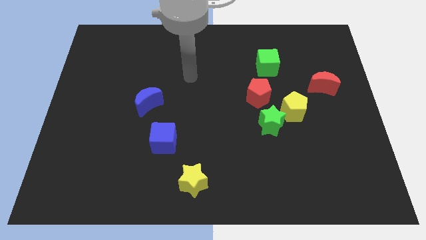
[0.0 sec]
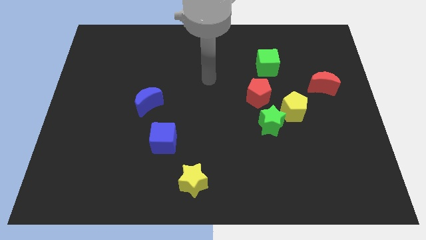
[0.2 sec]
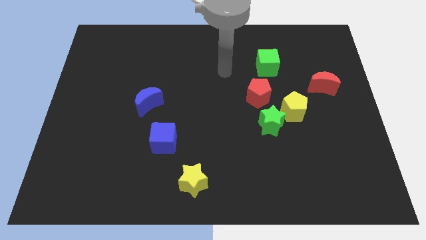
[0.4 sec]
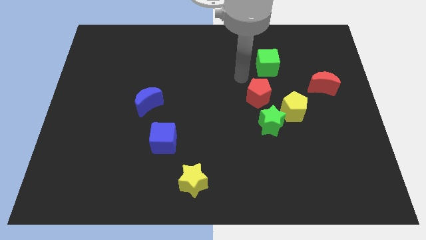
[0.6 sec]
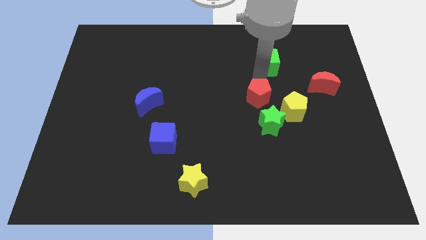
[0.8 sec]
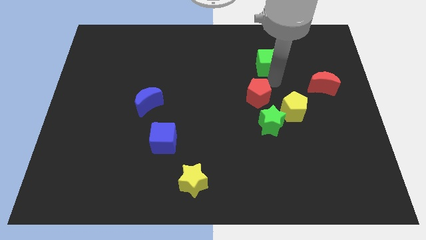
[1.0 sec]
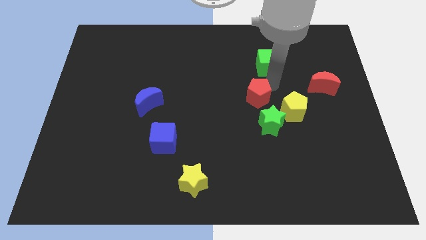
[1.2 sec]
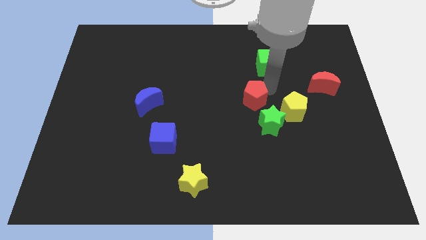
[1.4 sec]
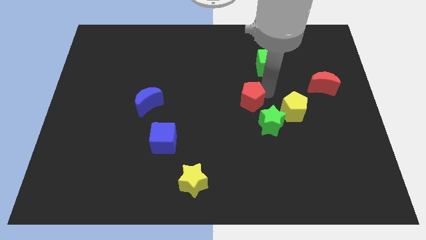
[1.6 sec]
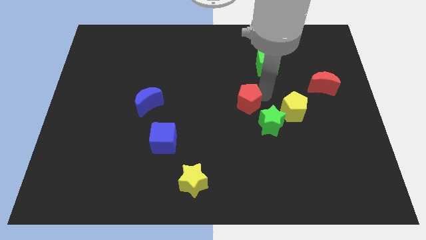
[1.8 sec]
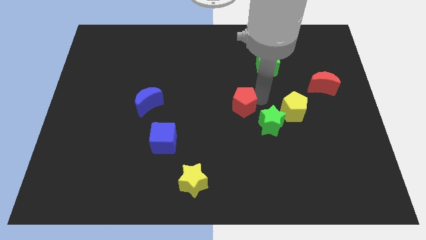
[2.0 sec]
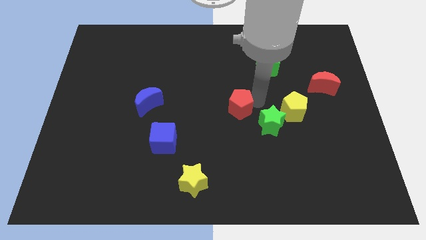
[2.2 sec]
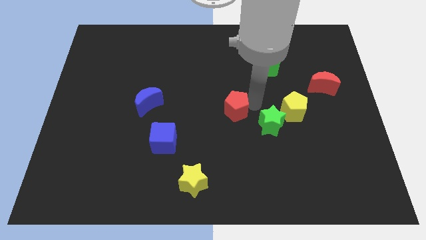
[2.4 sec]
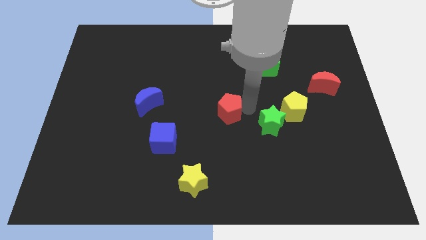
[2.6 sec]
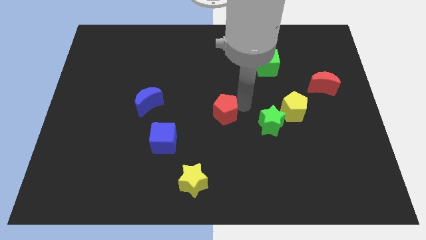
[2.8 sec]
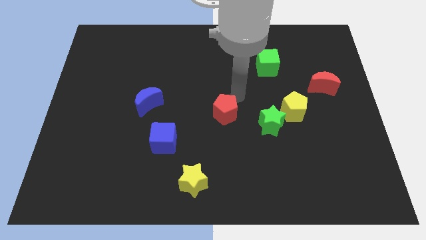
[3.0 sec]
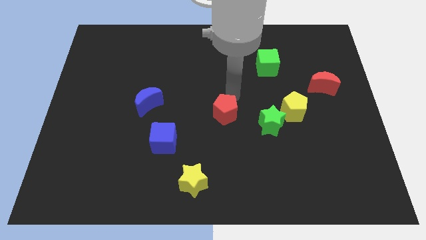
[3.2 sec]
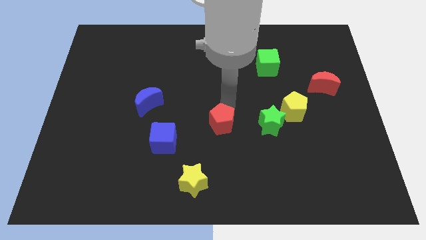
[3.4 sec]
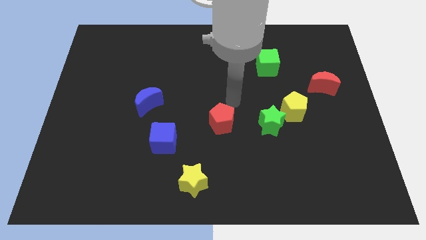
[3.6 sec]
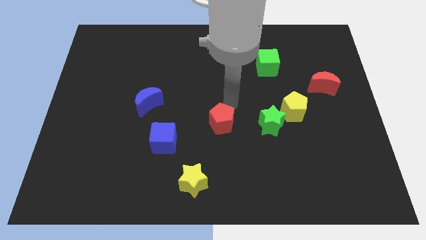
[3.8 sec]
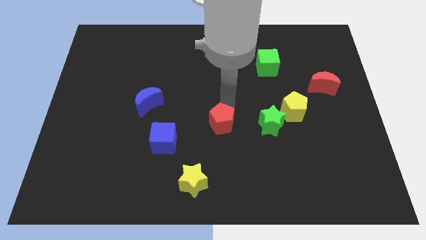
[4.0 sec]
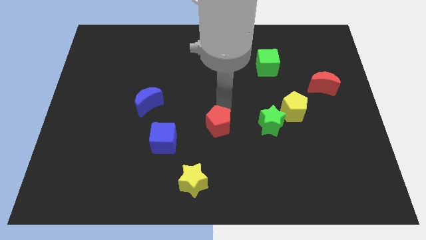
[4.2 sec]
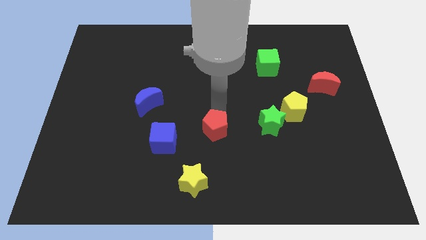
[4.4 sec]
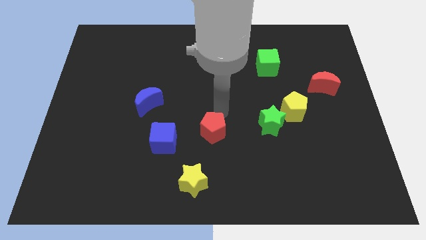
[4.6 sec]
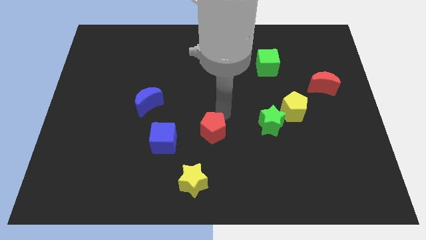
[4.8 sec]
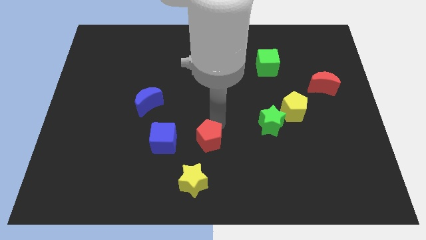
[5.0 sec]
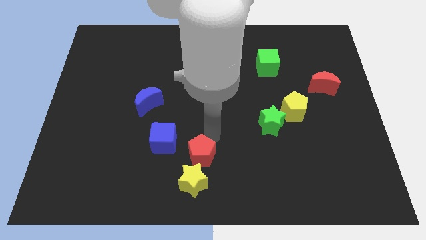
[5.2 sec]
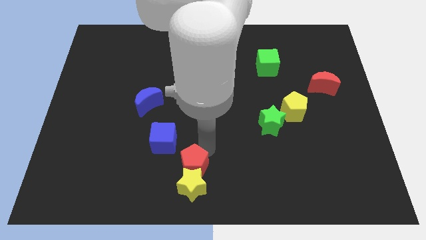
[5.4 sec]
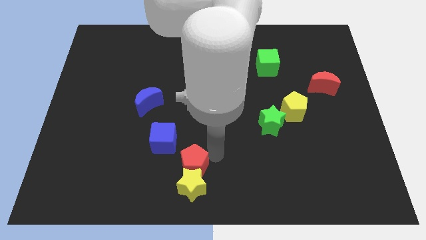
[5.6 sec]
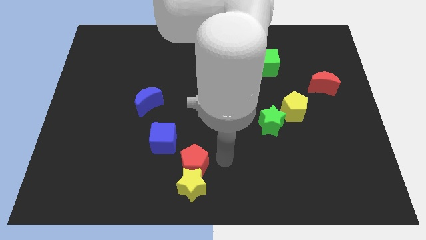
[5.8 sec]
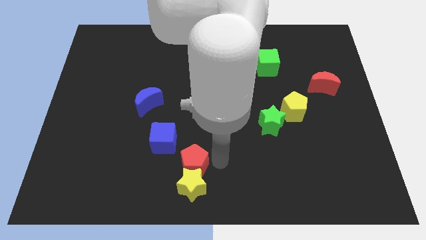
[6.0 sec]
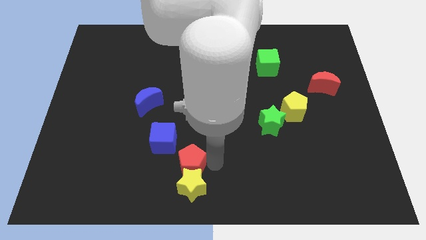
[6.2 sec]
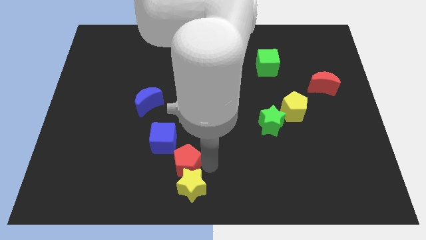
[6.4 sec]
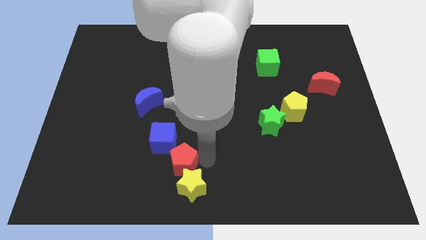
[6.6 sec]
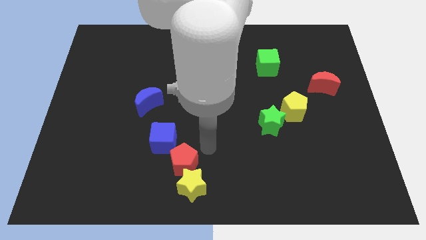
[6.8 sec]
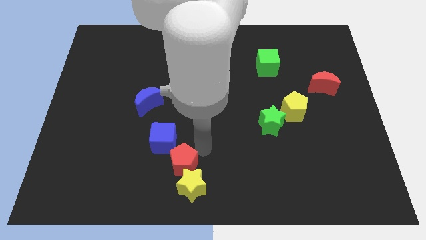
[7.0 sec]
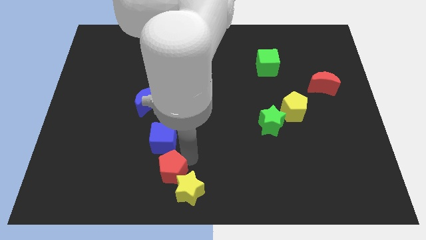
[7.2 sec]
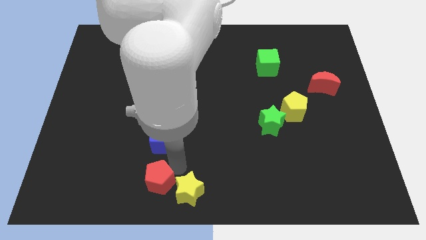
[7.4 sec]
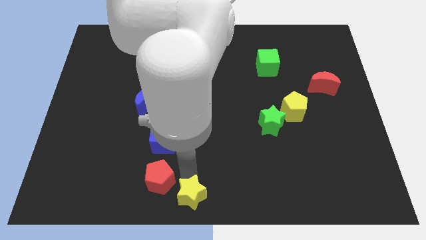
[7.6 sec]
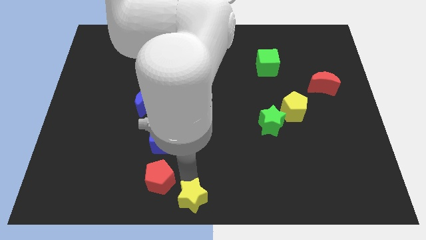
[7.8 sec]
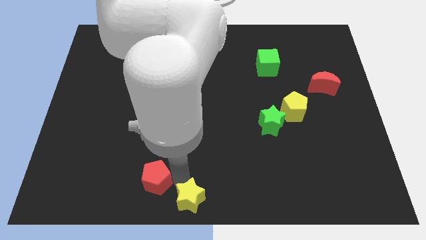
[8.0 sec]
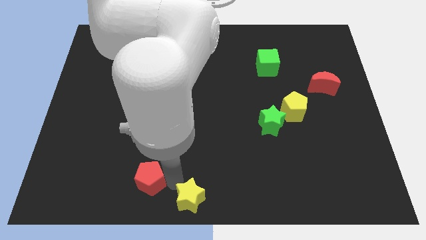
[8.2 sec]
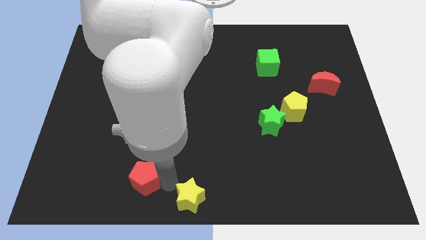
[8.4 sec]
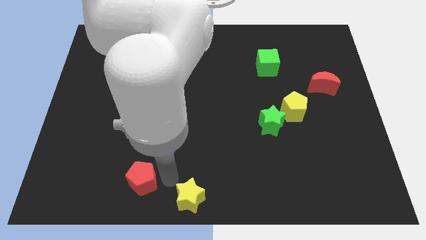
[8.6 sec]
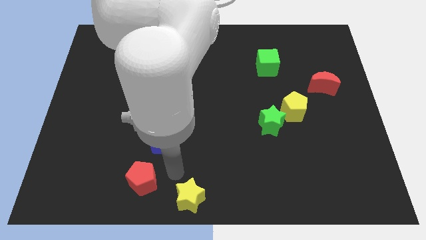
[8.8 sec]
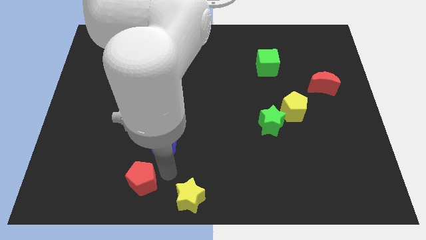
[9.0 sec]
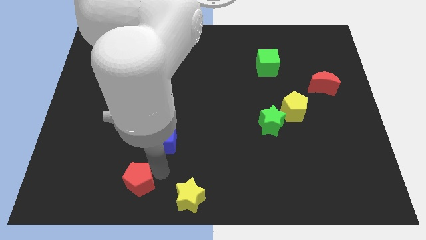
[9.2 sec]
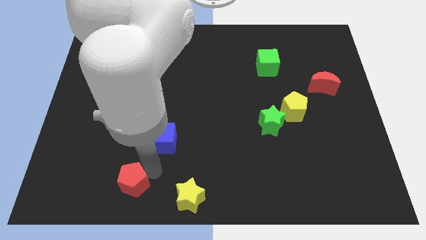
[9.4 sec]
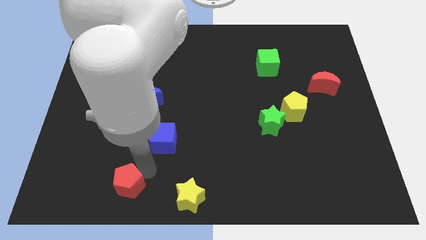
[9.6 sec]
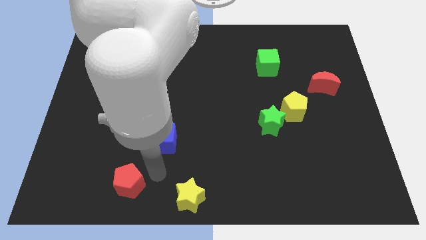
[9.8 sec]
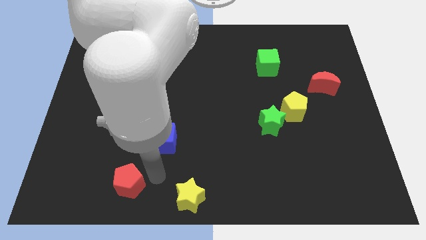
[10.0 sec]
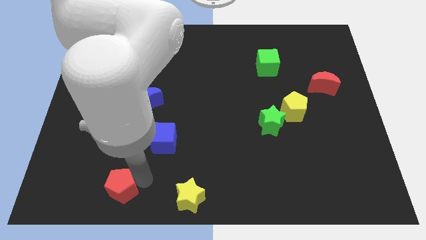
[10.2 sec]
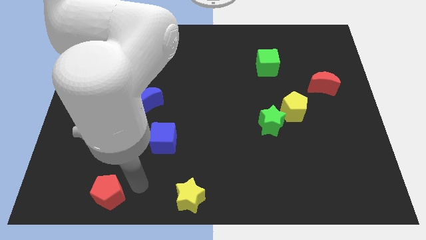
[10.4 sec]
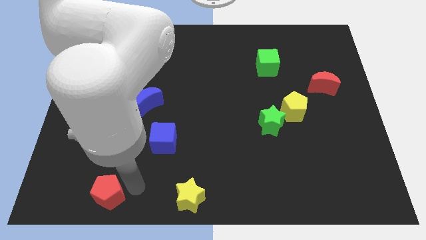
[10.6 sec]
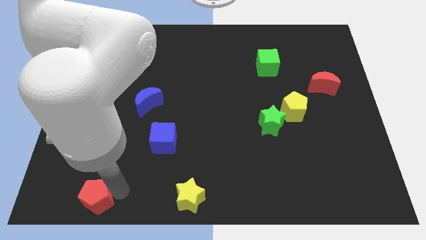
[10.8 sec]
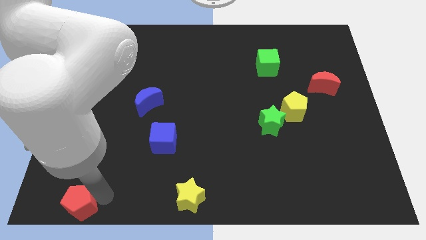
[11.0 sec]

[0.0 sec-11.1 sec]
slide the red pentagon to the bottom left of the board

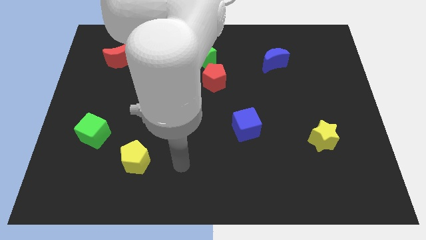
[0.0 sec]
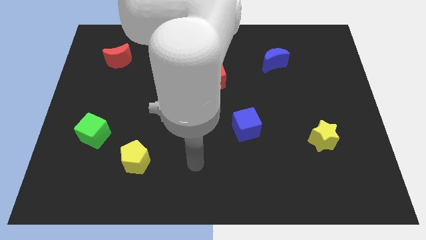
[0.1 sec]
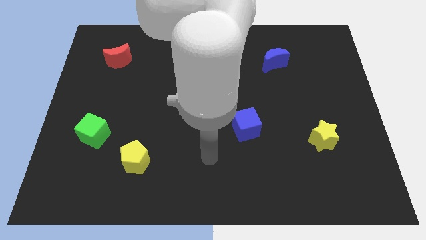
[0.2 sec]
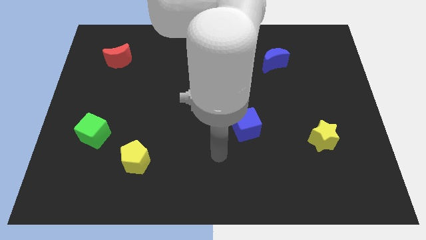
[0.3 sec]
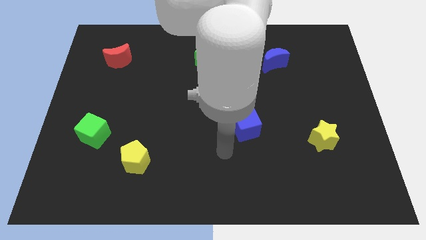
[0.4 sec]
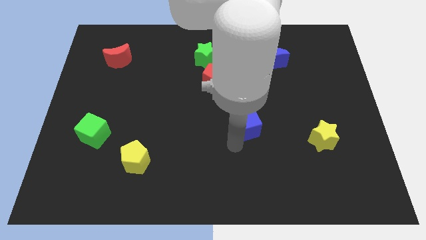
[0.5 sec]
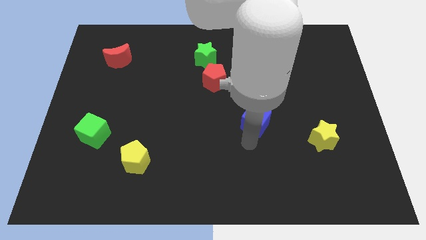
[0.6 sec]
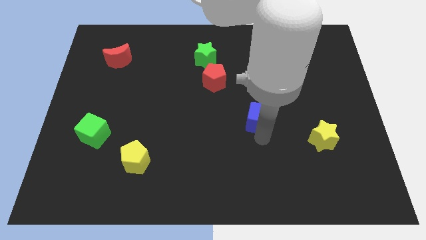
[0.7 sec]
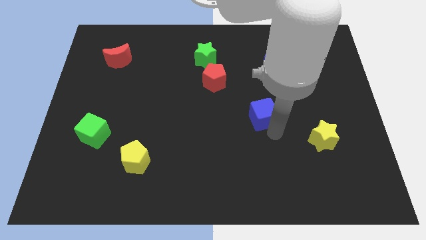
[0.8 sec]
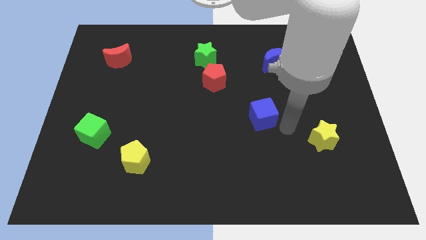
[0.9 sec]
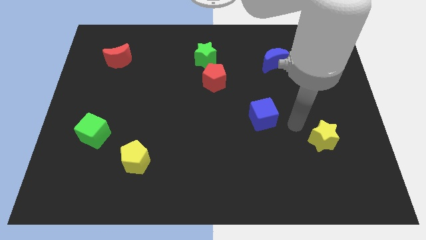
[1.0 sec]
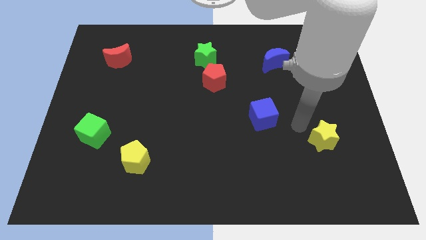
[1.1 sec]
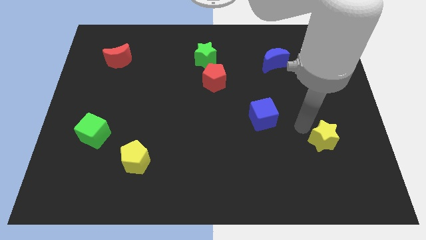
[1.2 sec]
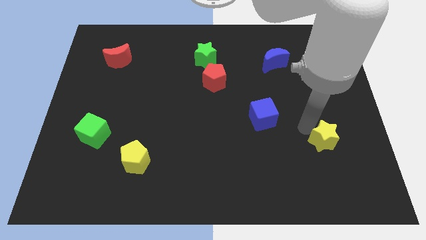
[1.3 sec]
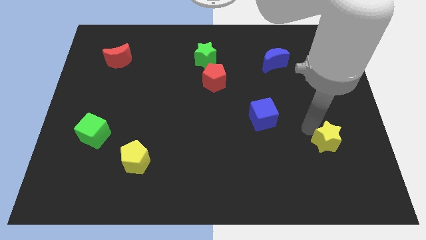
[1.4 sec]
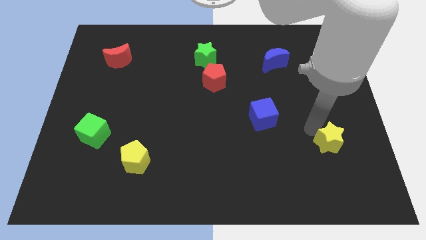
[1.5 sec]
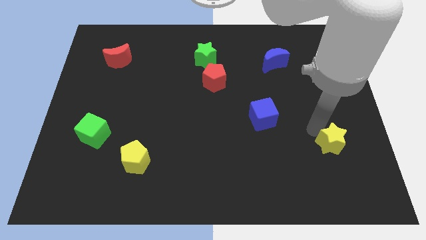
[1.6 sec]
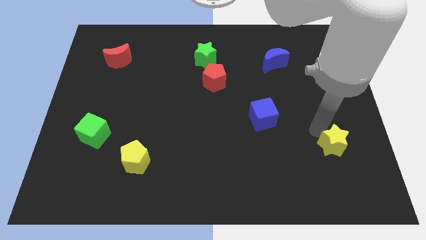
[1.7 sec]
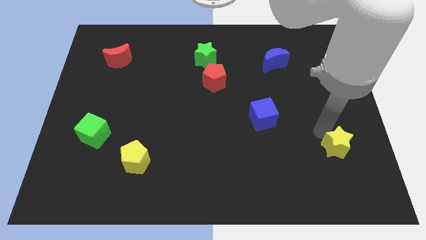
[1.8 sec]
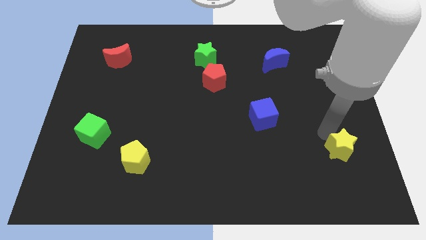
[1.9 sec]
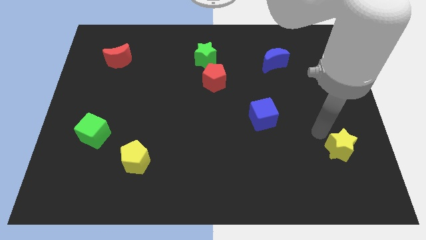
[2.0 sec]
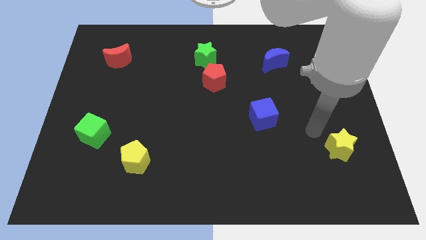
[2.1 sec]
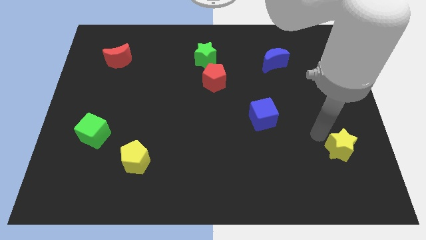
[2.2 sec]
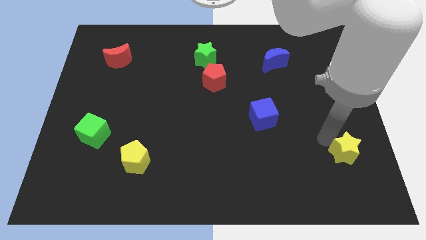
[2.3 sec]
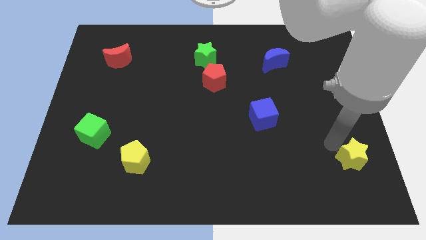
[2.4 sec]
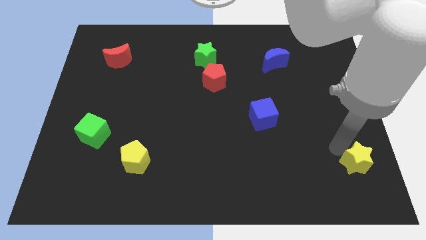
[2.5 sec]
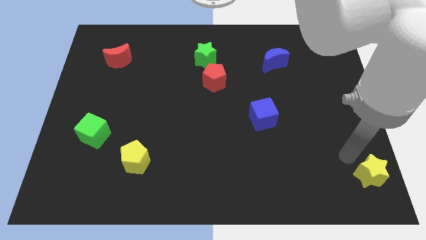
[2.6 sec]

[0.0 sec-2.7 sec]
move the yellow star to the bottom right of the board
